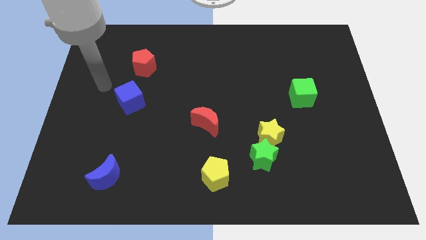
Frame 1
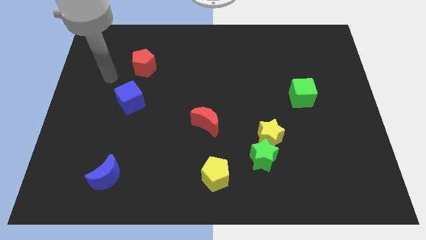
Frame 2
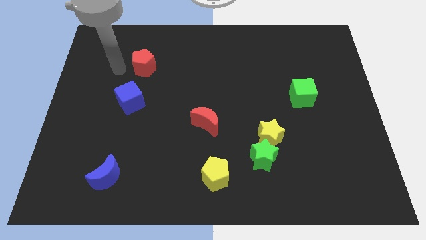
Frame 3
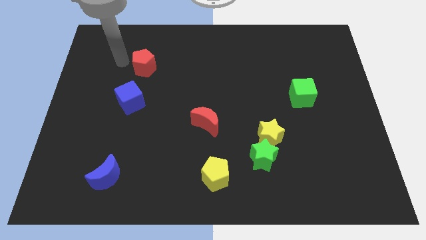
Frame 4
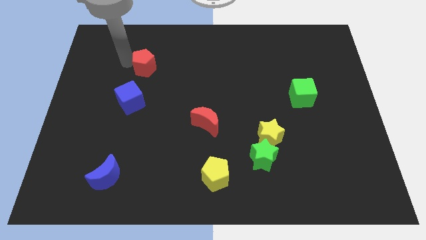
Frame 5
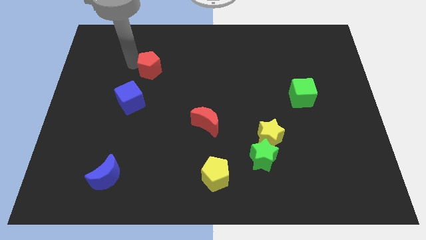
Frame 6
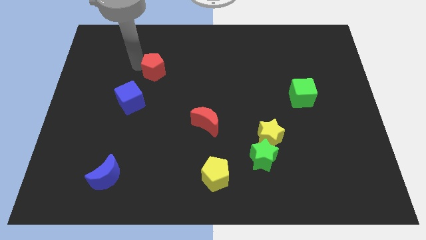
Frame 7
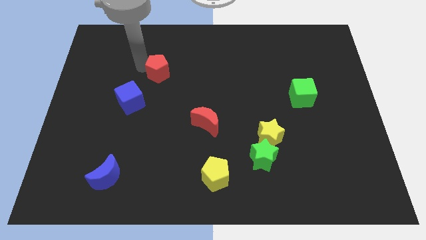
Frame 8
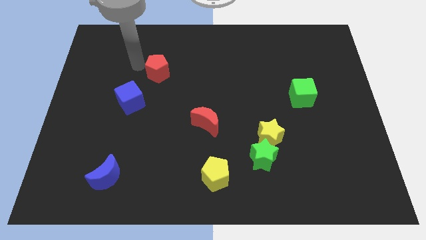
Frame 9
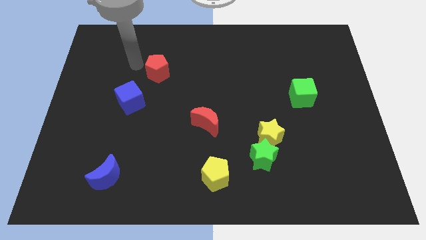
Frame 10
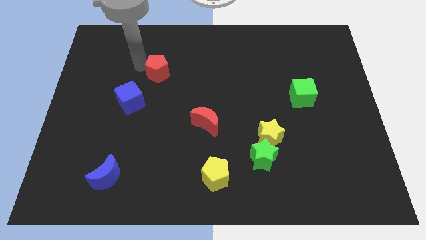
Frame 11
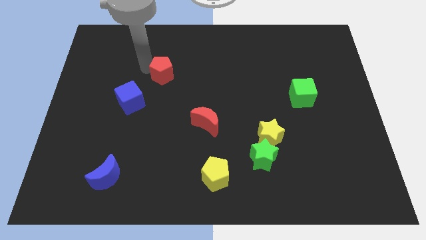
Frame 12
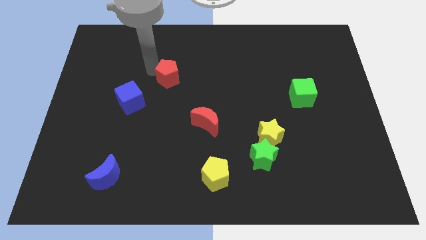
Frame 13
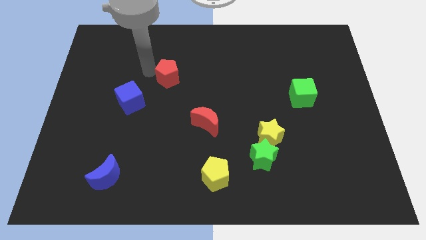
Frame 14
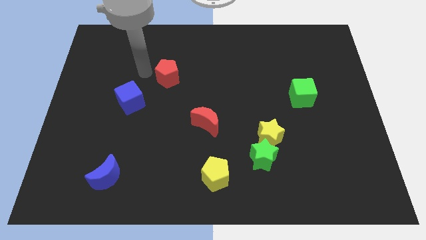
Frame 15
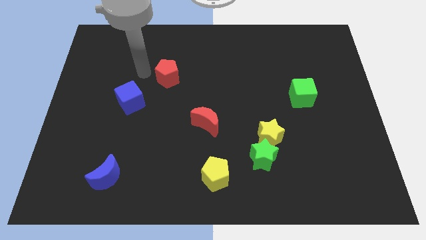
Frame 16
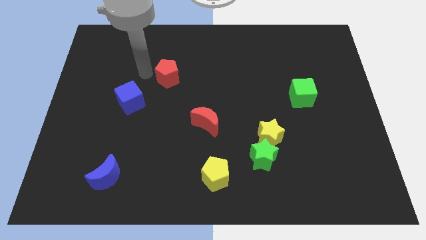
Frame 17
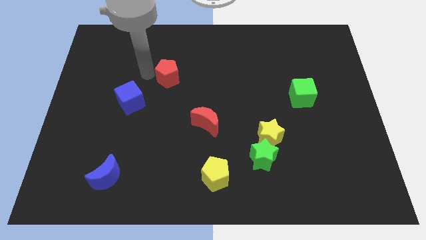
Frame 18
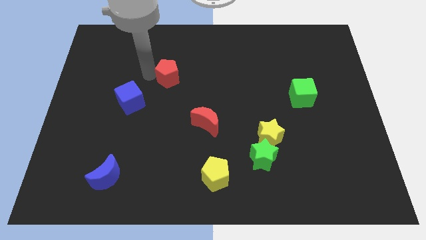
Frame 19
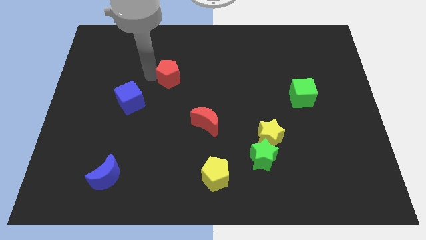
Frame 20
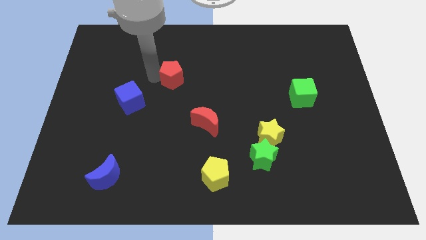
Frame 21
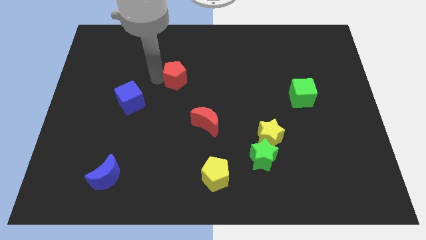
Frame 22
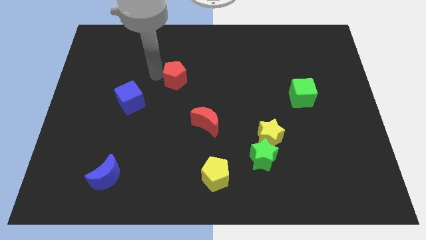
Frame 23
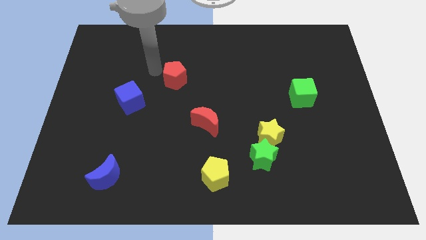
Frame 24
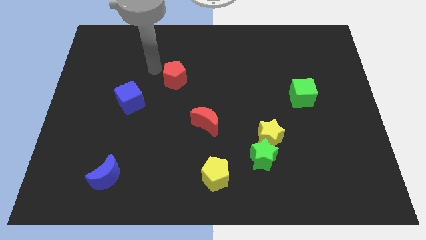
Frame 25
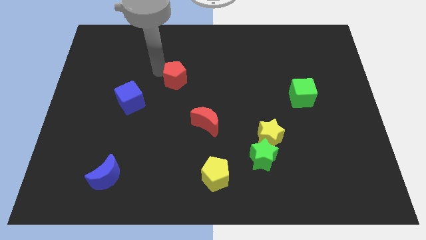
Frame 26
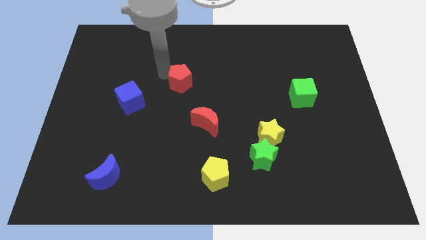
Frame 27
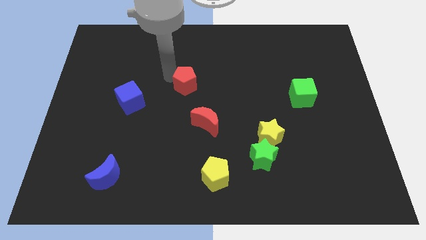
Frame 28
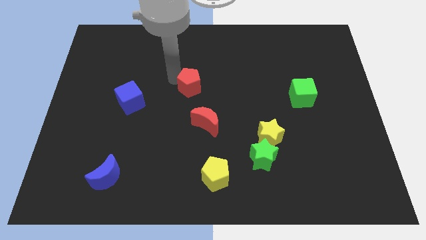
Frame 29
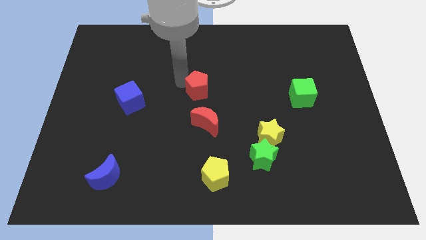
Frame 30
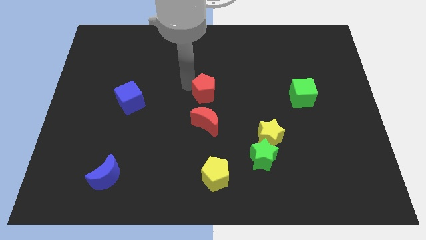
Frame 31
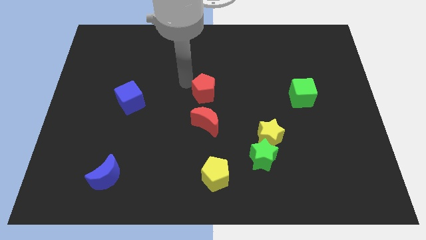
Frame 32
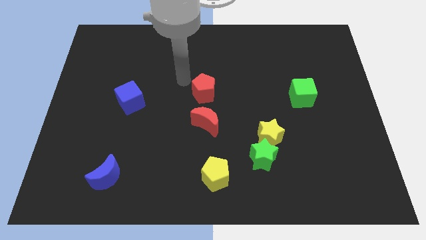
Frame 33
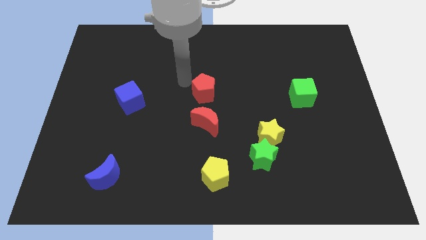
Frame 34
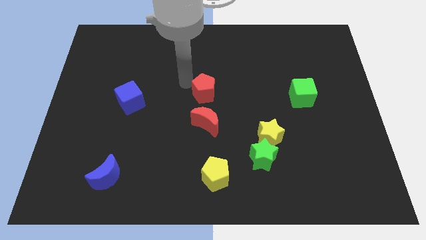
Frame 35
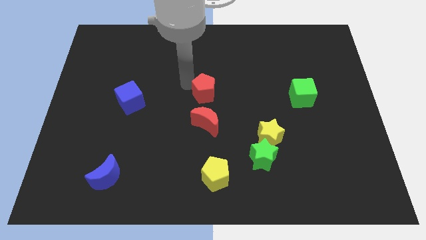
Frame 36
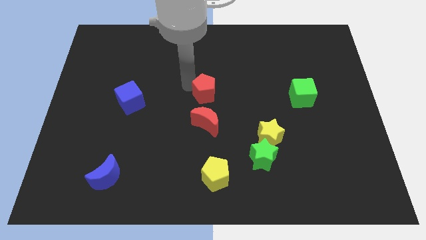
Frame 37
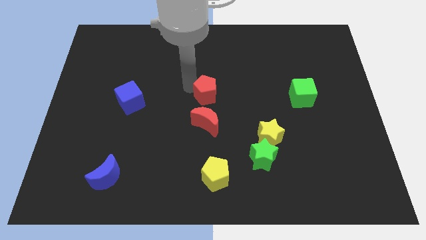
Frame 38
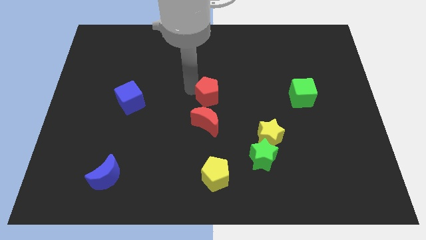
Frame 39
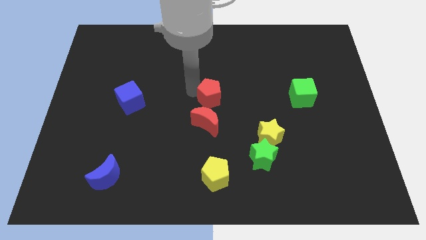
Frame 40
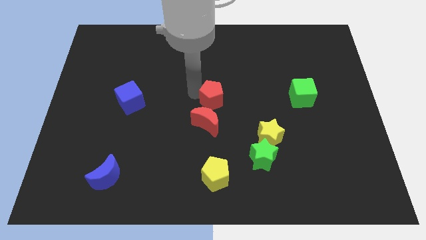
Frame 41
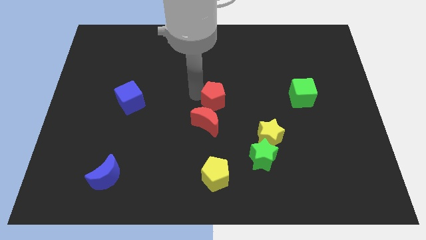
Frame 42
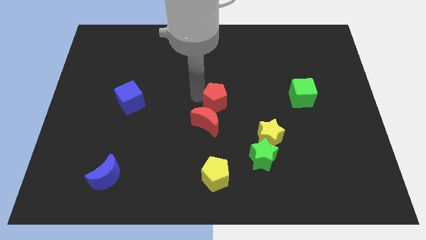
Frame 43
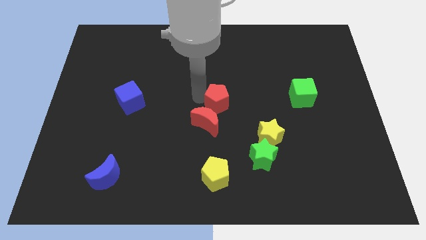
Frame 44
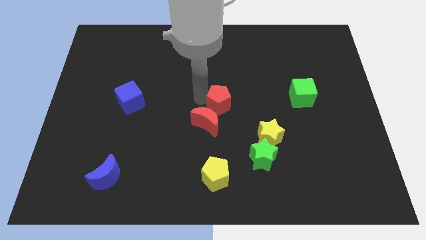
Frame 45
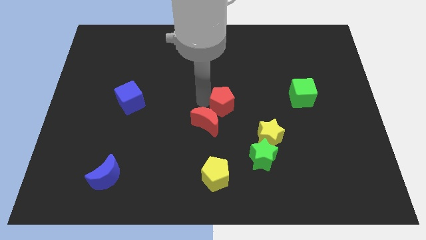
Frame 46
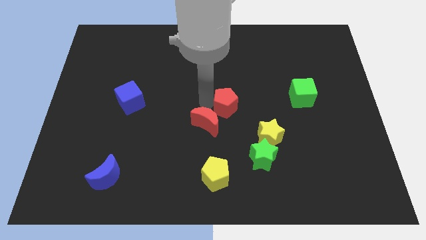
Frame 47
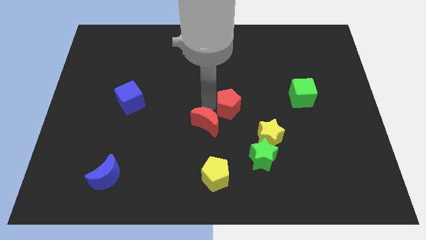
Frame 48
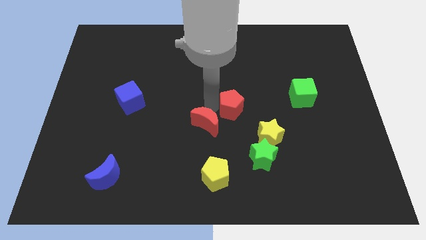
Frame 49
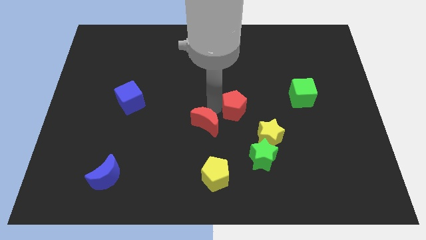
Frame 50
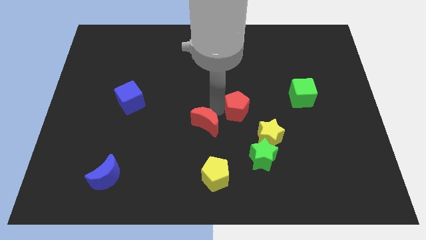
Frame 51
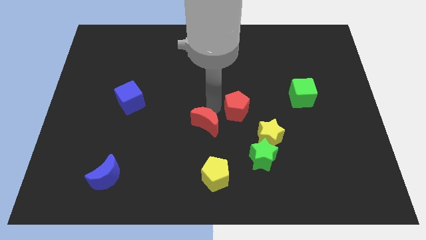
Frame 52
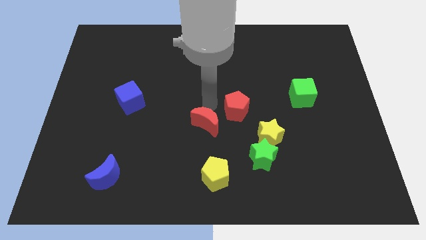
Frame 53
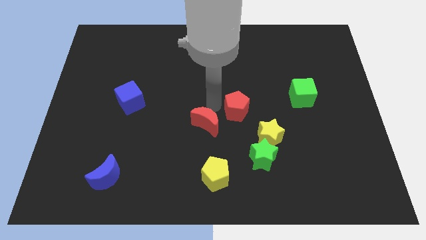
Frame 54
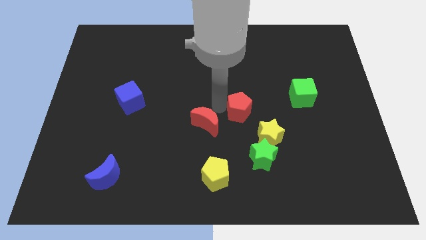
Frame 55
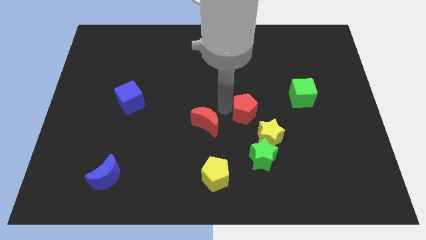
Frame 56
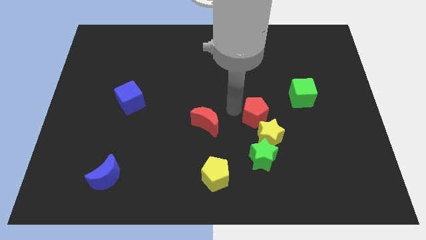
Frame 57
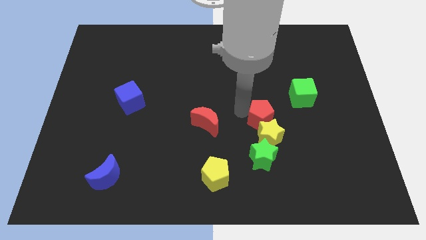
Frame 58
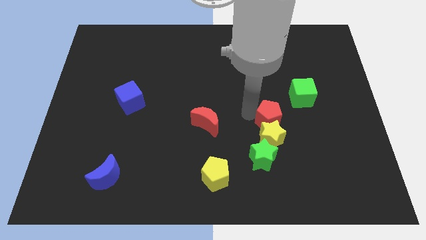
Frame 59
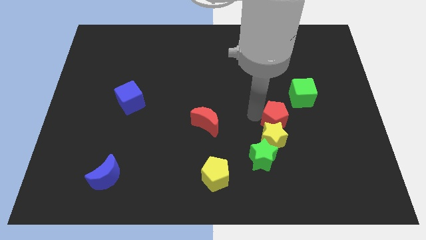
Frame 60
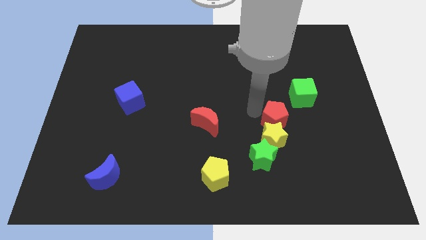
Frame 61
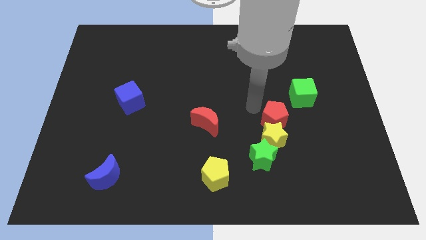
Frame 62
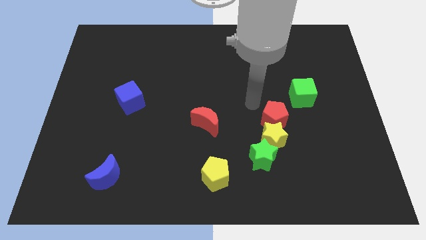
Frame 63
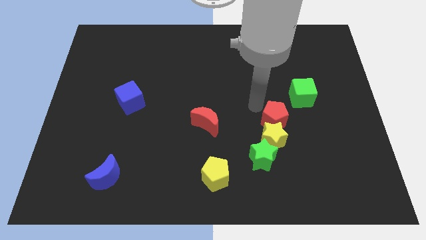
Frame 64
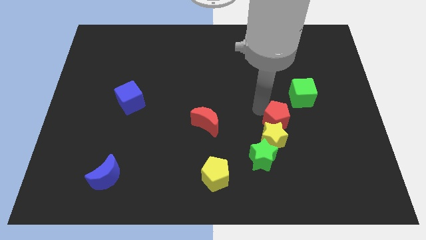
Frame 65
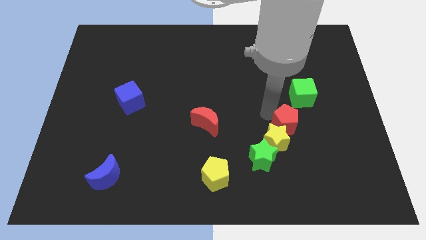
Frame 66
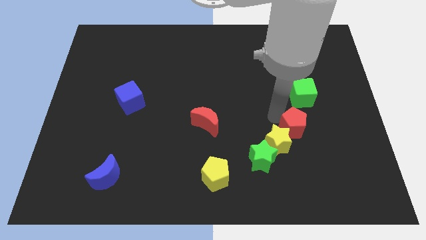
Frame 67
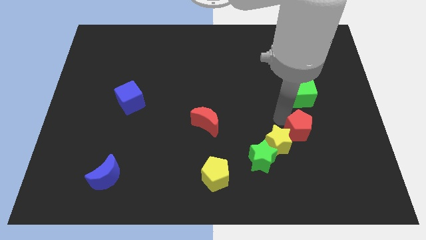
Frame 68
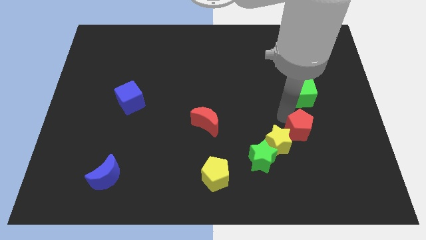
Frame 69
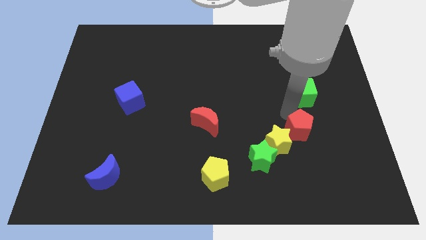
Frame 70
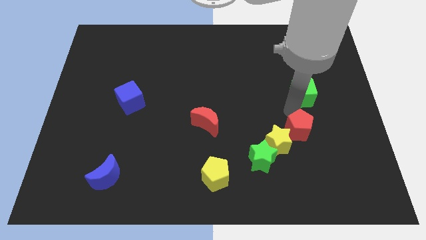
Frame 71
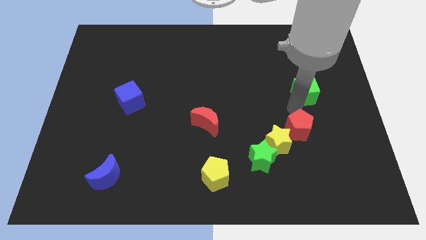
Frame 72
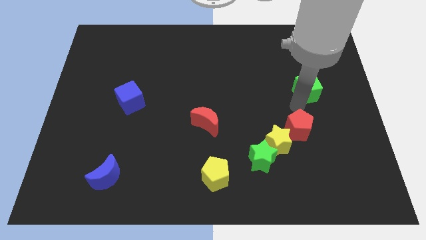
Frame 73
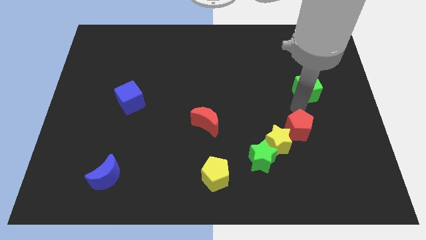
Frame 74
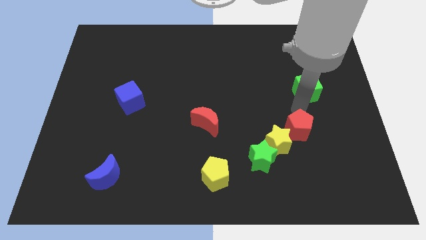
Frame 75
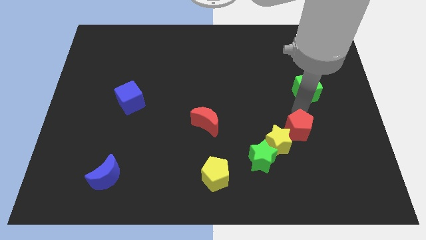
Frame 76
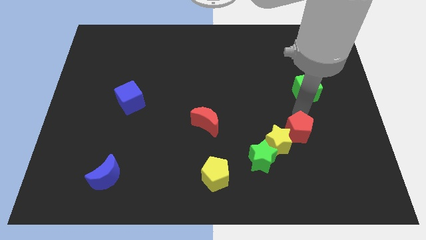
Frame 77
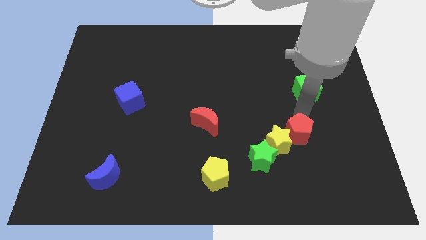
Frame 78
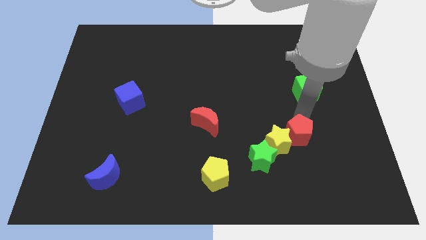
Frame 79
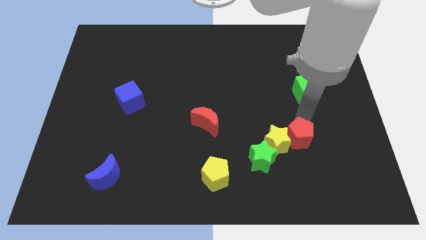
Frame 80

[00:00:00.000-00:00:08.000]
put the red pentagon to the bottom right of the yellow star
